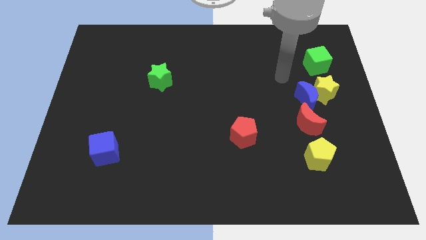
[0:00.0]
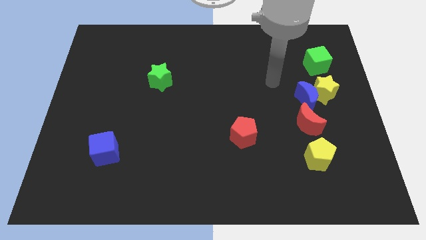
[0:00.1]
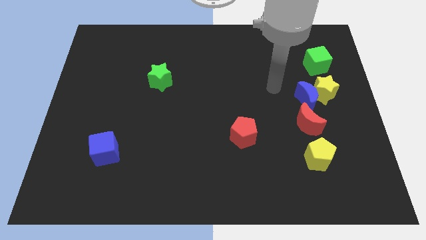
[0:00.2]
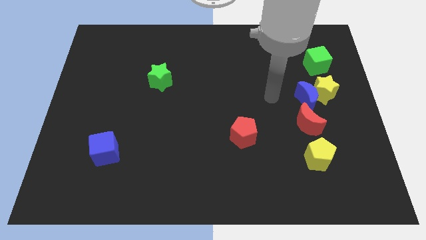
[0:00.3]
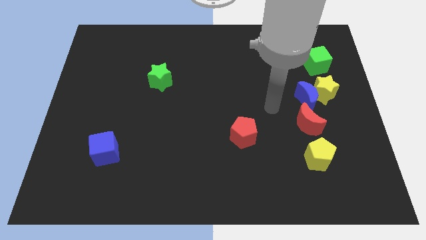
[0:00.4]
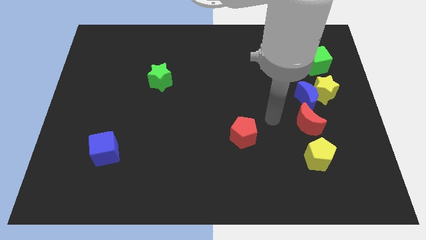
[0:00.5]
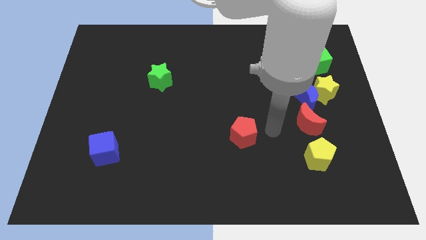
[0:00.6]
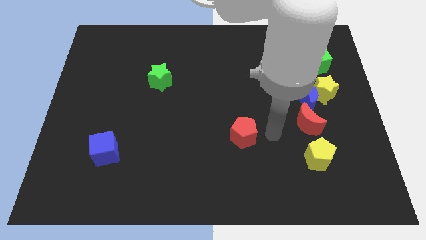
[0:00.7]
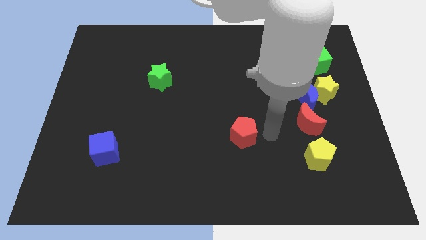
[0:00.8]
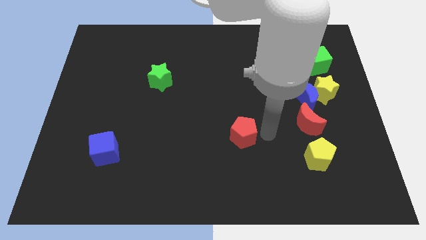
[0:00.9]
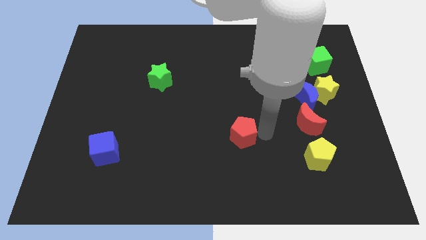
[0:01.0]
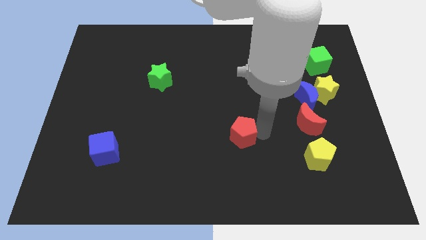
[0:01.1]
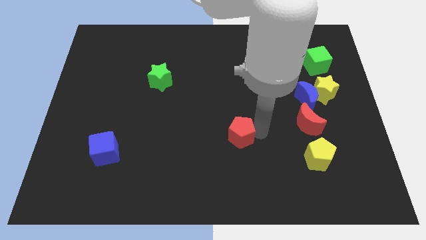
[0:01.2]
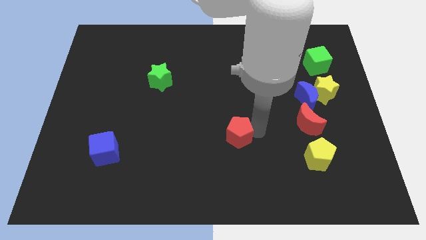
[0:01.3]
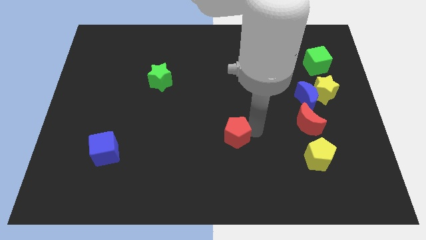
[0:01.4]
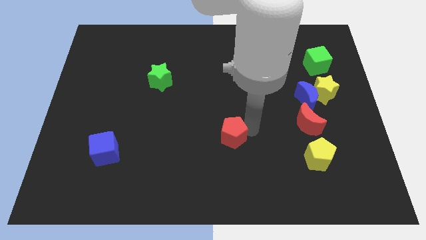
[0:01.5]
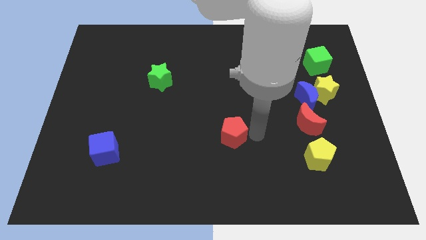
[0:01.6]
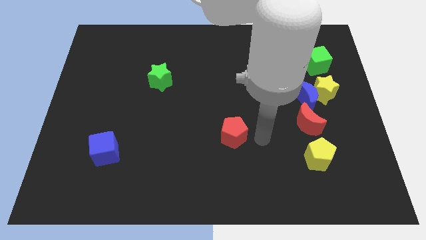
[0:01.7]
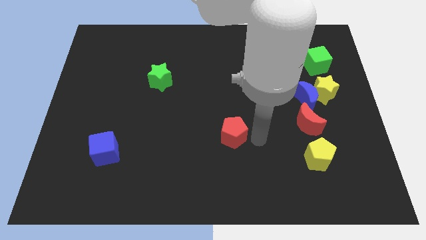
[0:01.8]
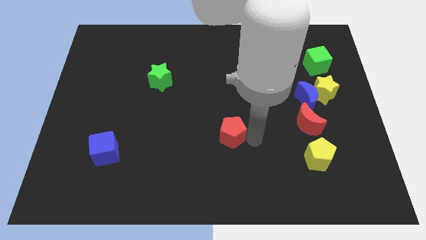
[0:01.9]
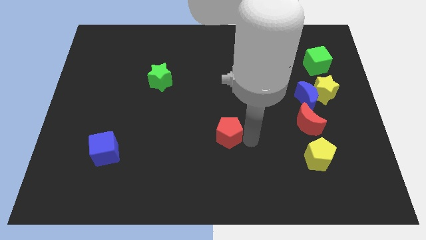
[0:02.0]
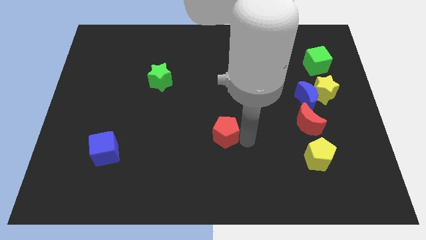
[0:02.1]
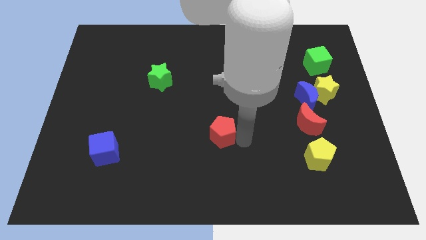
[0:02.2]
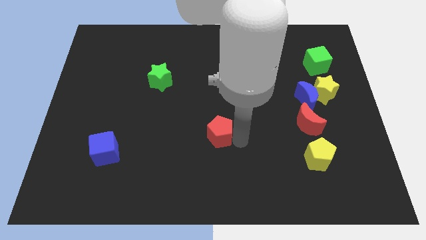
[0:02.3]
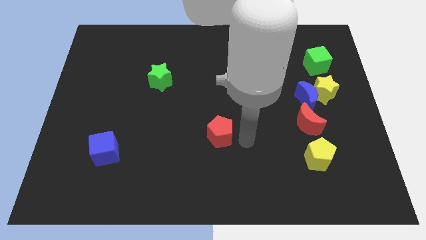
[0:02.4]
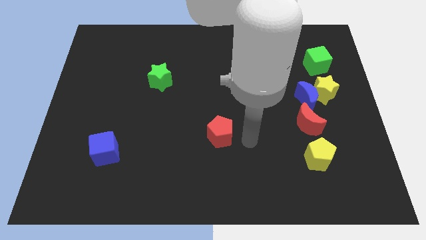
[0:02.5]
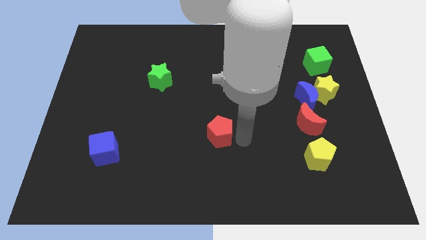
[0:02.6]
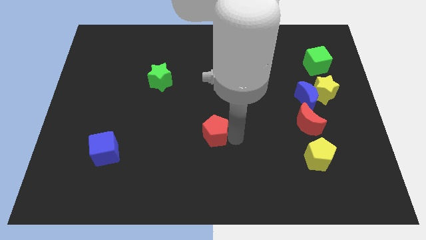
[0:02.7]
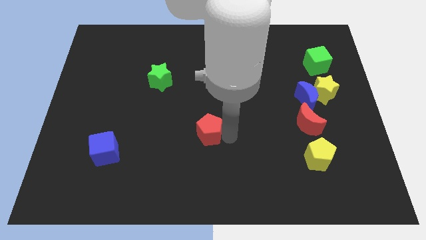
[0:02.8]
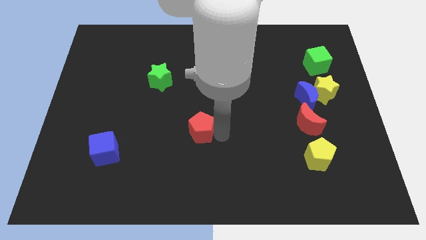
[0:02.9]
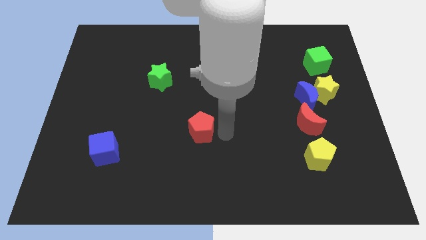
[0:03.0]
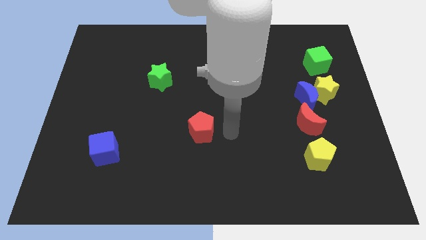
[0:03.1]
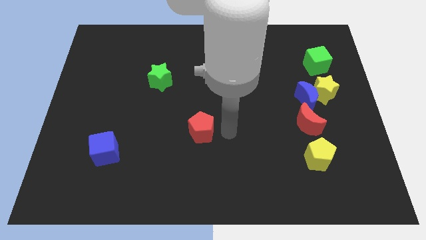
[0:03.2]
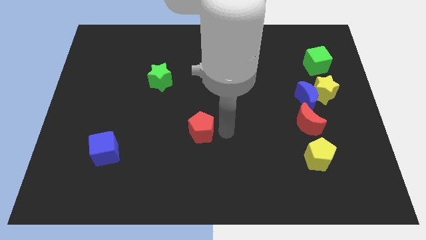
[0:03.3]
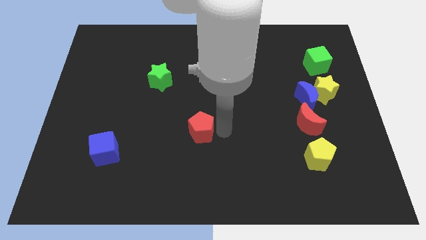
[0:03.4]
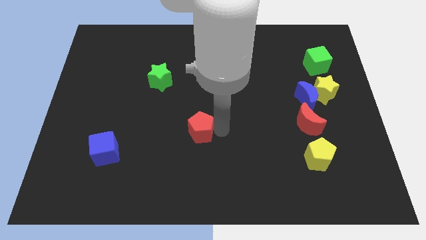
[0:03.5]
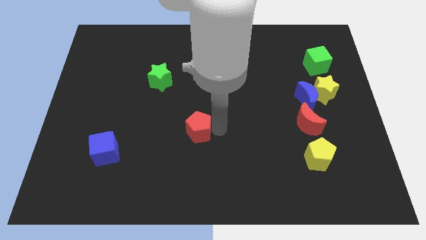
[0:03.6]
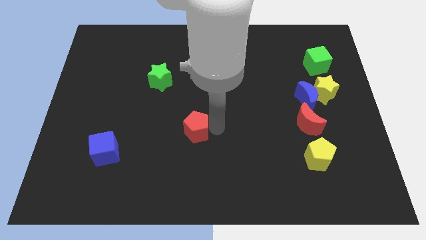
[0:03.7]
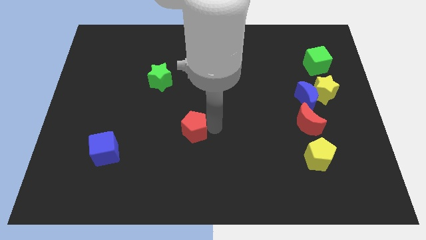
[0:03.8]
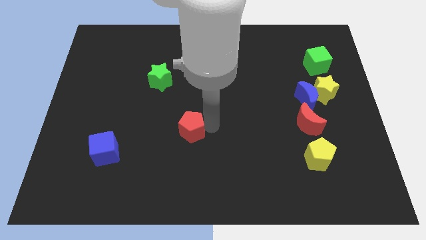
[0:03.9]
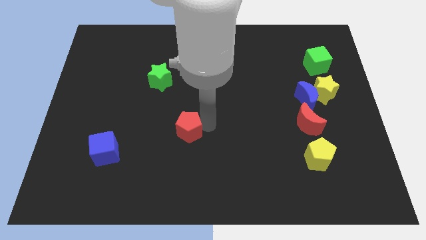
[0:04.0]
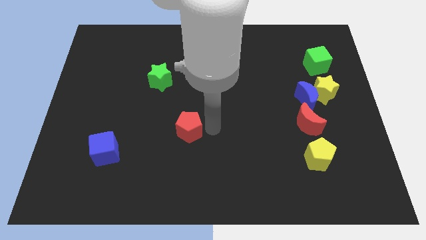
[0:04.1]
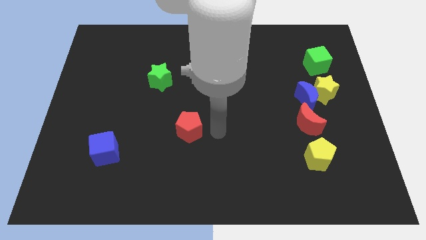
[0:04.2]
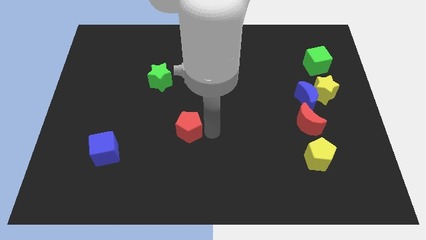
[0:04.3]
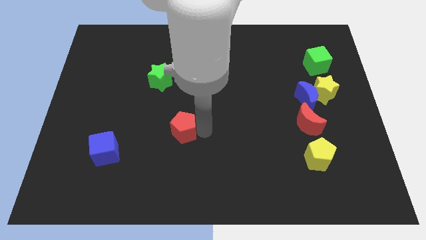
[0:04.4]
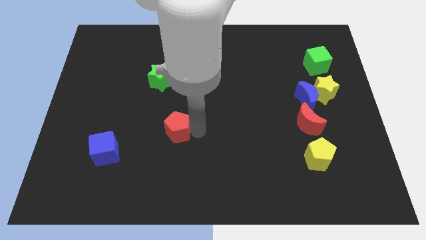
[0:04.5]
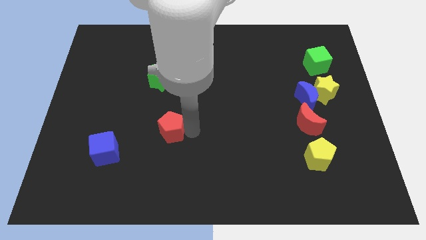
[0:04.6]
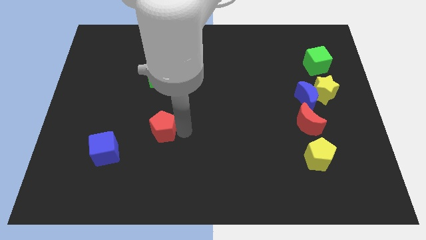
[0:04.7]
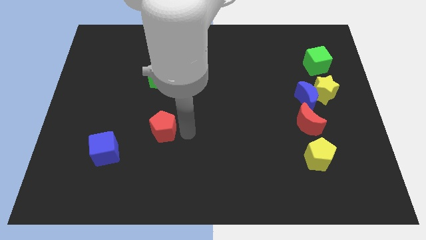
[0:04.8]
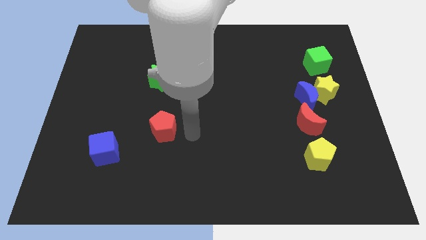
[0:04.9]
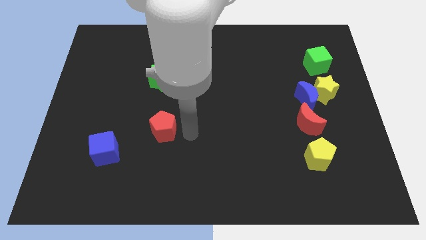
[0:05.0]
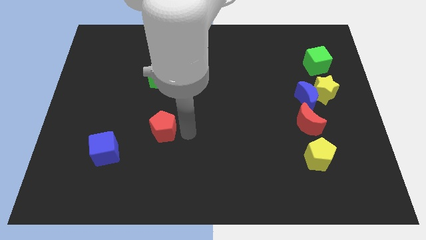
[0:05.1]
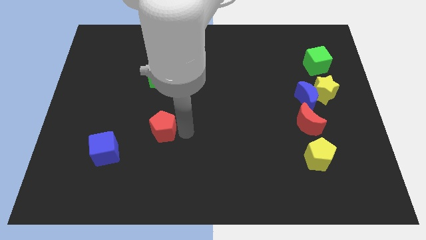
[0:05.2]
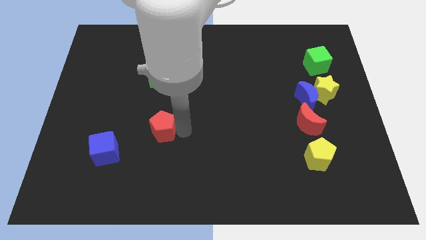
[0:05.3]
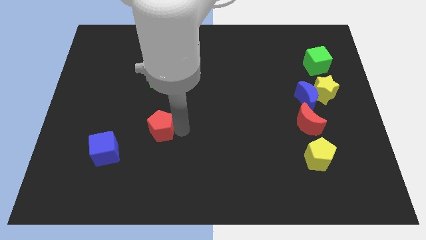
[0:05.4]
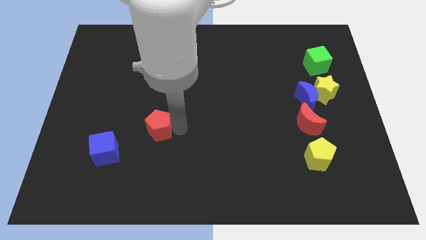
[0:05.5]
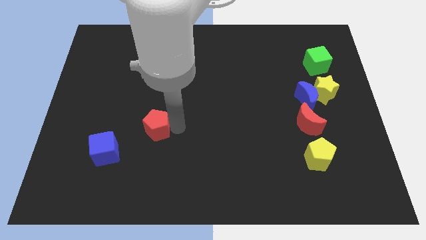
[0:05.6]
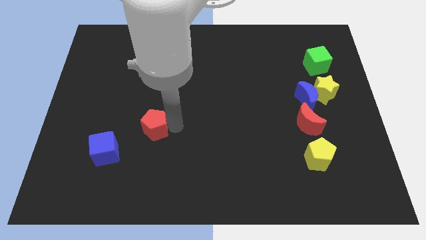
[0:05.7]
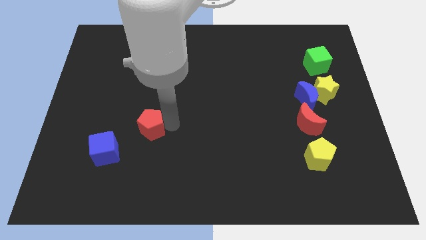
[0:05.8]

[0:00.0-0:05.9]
slide the red pentagon to the left

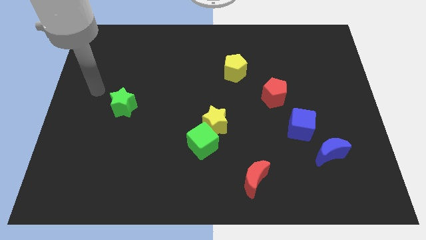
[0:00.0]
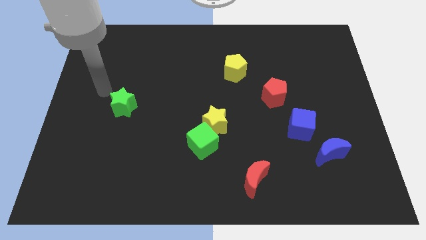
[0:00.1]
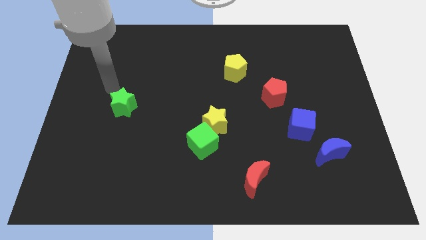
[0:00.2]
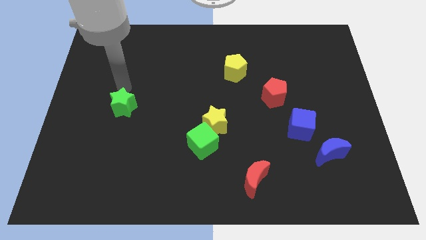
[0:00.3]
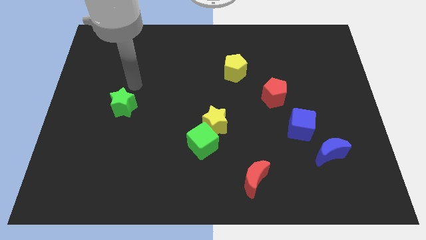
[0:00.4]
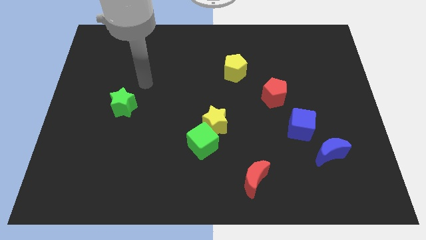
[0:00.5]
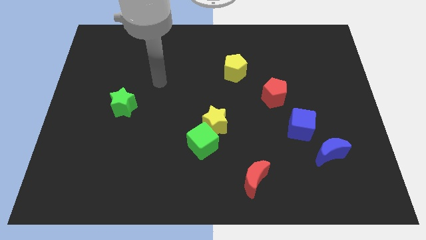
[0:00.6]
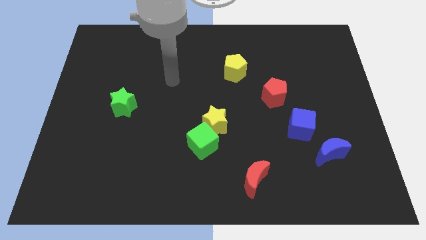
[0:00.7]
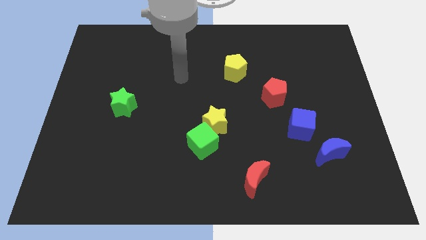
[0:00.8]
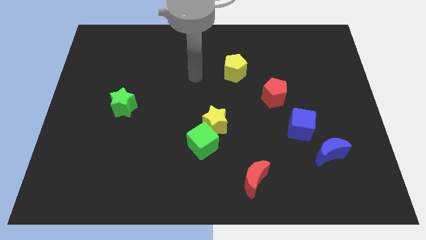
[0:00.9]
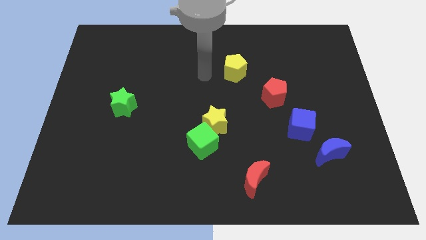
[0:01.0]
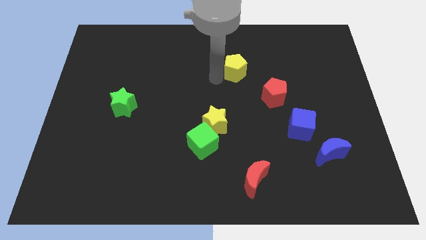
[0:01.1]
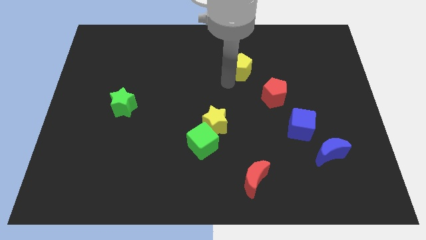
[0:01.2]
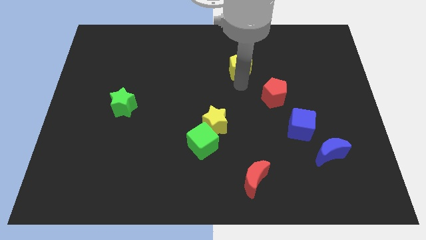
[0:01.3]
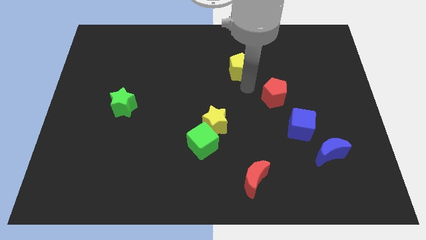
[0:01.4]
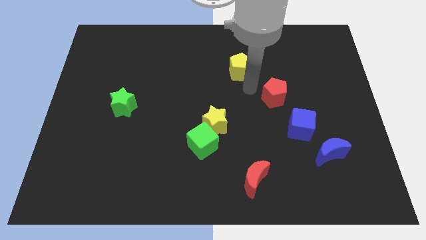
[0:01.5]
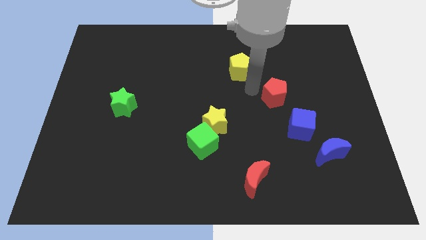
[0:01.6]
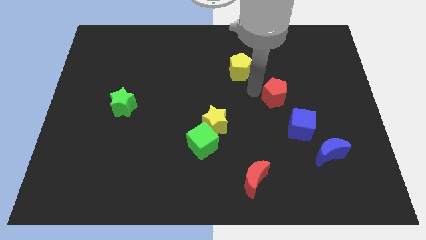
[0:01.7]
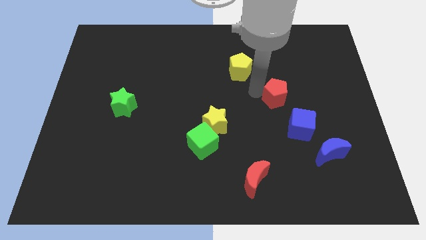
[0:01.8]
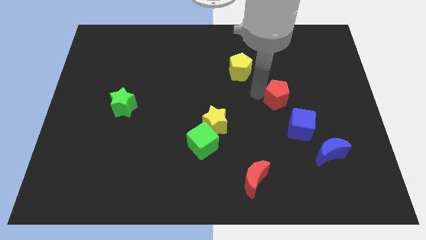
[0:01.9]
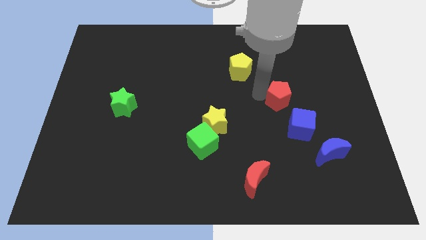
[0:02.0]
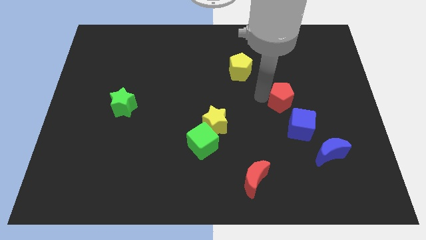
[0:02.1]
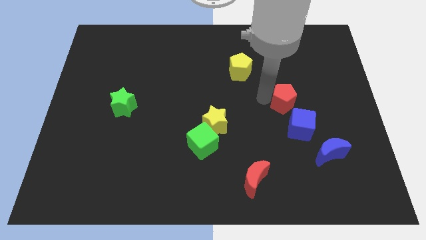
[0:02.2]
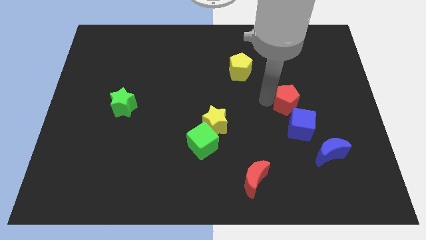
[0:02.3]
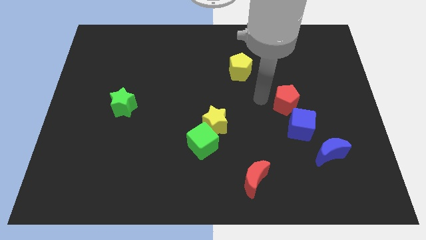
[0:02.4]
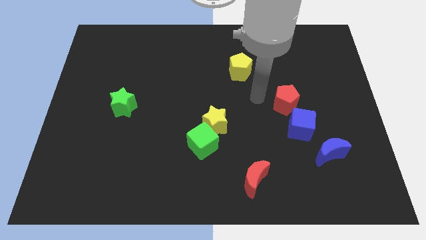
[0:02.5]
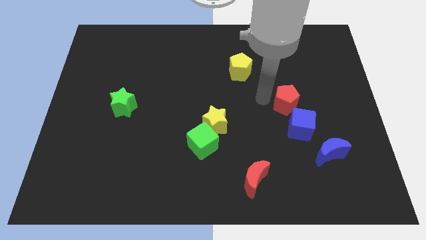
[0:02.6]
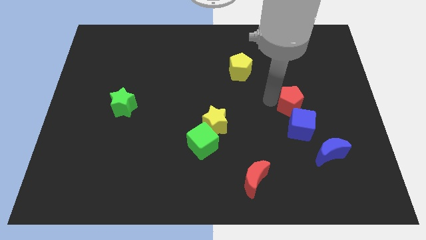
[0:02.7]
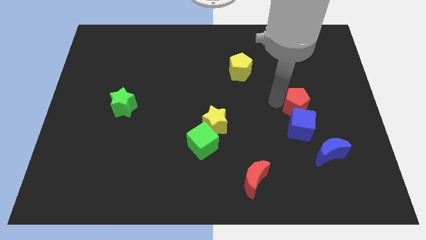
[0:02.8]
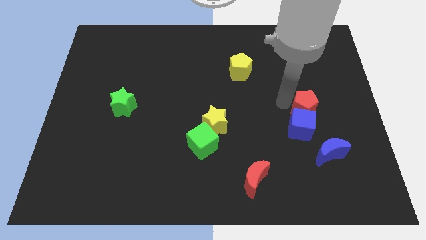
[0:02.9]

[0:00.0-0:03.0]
push the red pentagon slightly diagonally down and to the right
